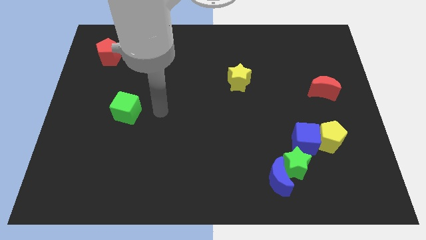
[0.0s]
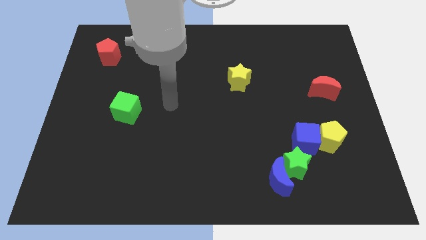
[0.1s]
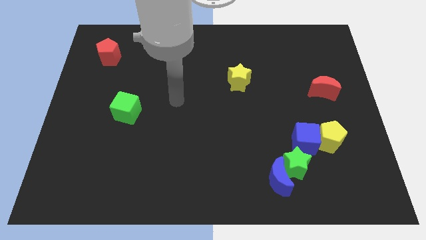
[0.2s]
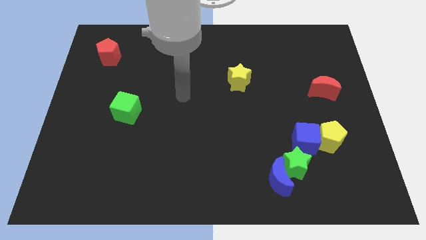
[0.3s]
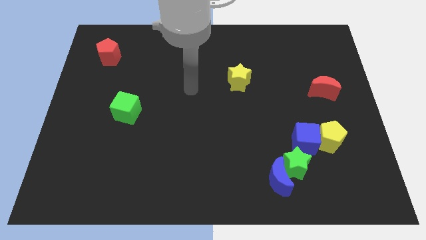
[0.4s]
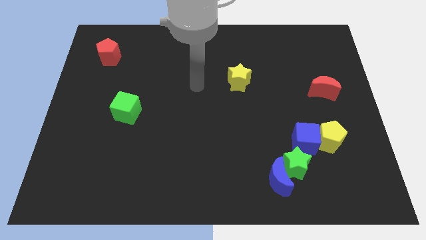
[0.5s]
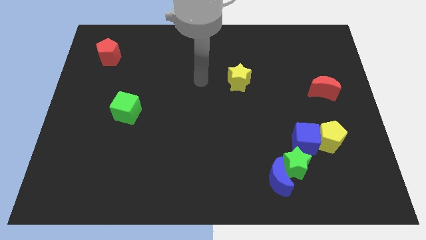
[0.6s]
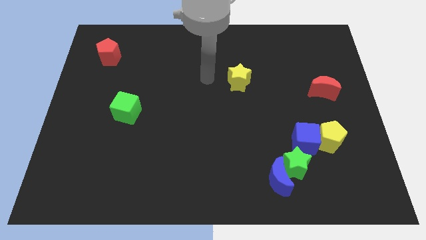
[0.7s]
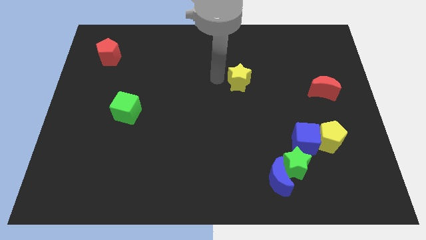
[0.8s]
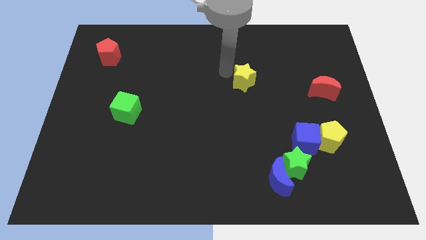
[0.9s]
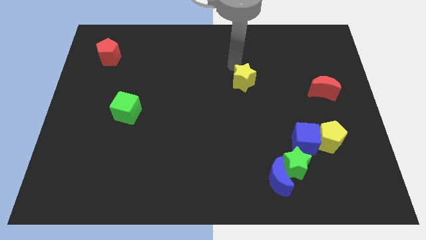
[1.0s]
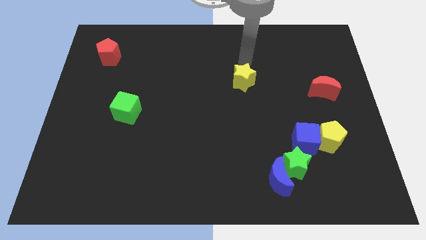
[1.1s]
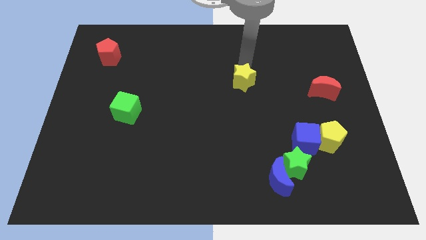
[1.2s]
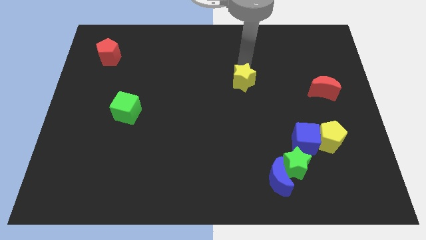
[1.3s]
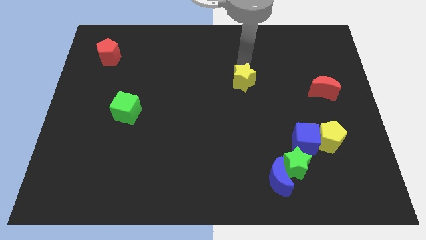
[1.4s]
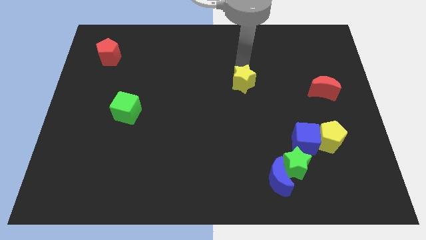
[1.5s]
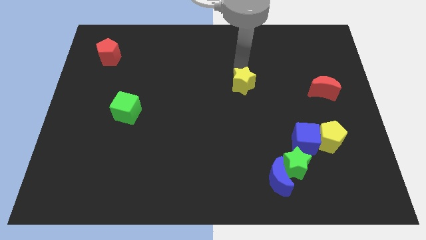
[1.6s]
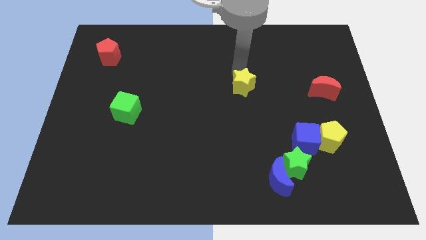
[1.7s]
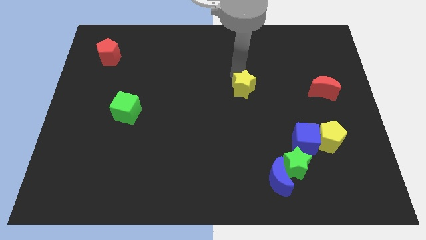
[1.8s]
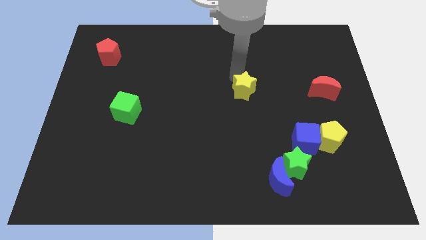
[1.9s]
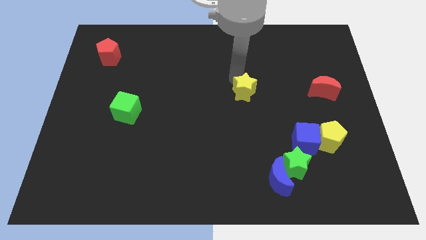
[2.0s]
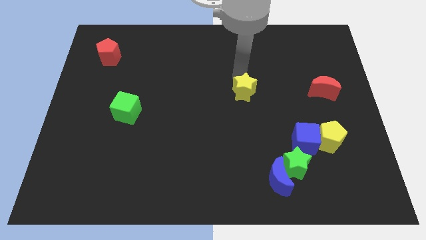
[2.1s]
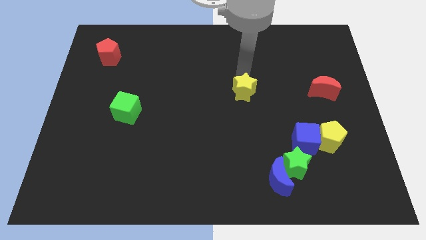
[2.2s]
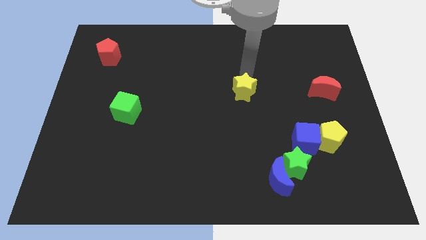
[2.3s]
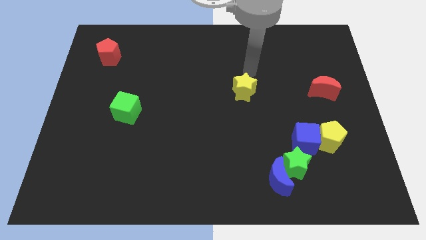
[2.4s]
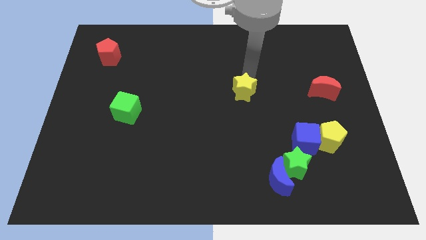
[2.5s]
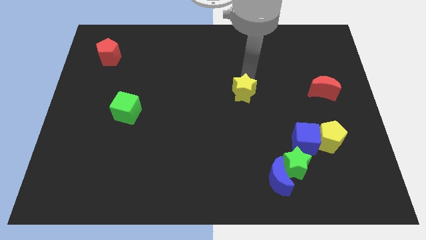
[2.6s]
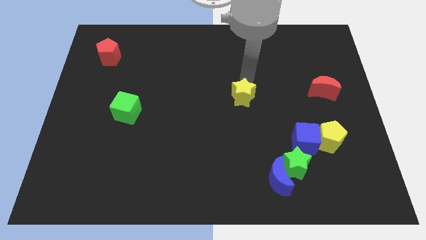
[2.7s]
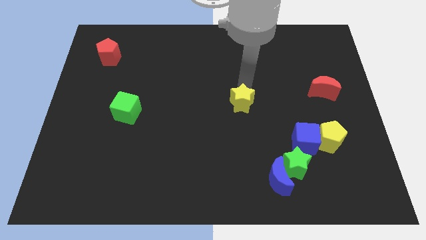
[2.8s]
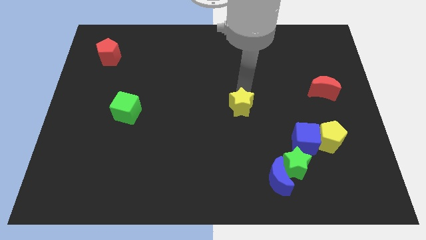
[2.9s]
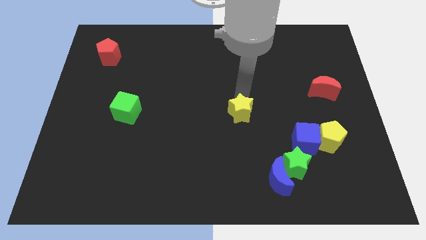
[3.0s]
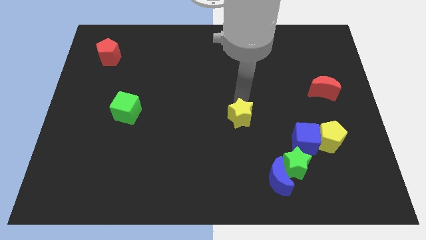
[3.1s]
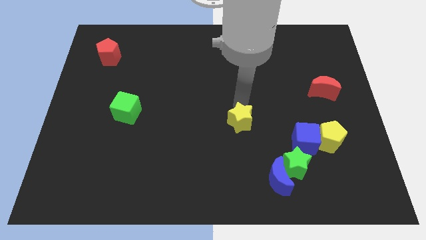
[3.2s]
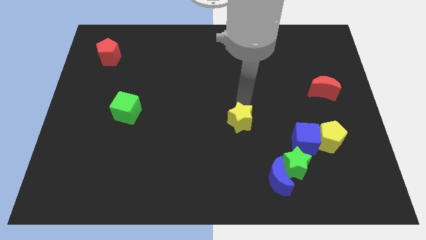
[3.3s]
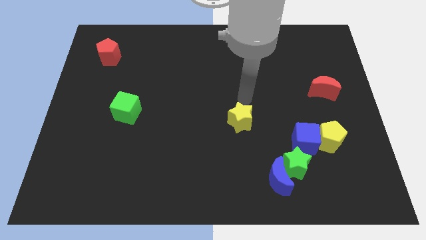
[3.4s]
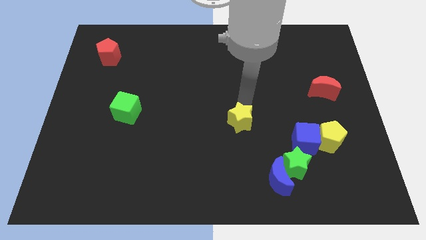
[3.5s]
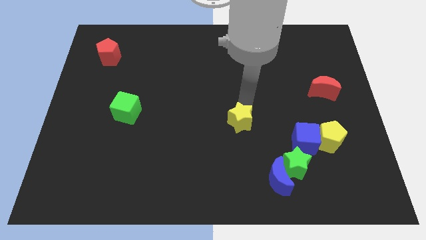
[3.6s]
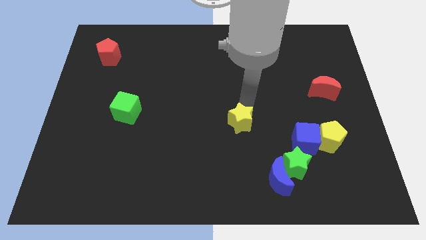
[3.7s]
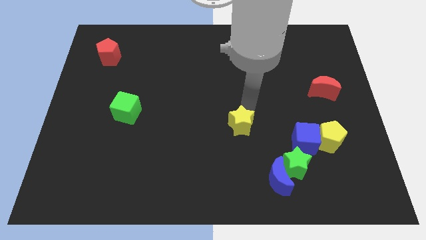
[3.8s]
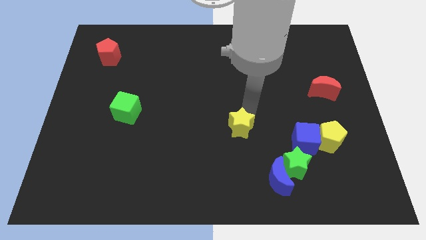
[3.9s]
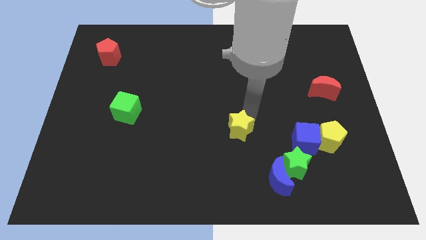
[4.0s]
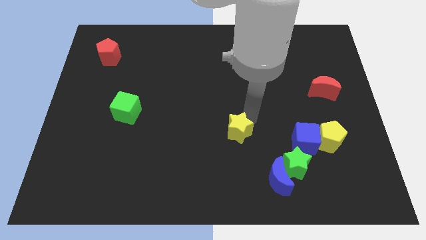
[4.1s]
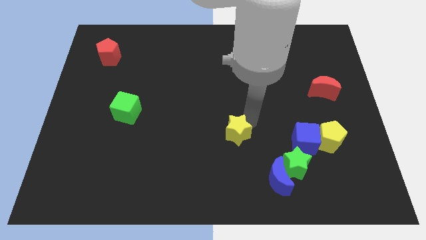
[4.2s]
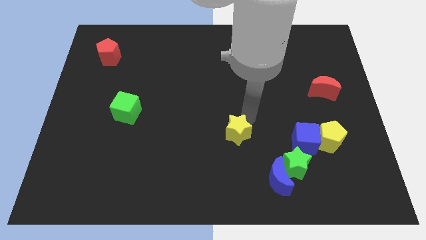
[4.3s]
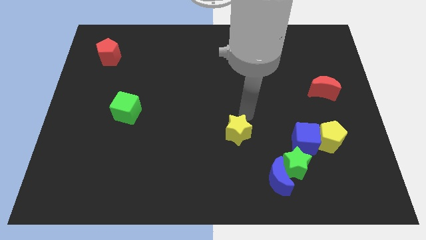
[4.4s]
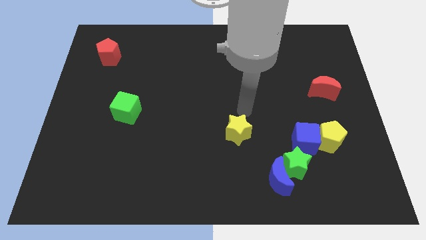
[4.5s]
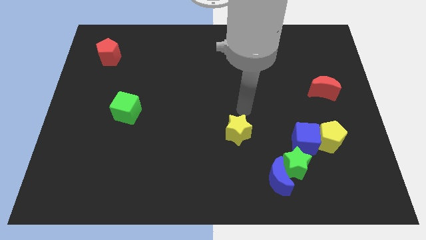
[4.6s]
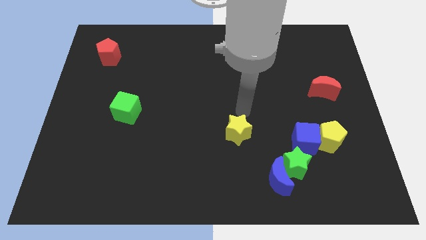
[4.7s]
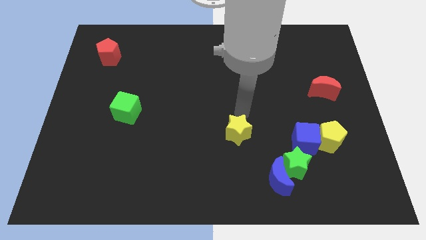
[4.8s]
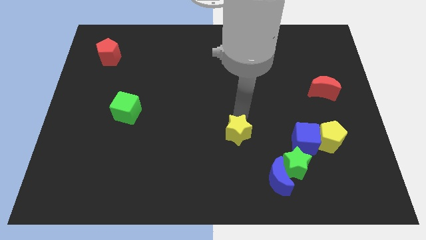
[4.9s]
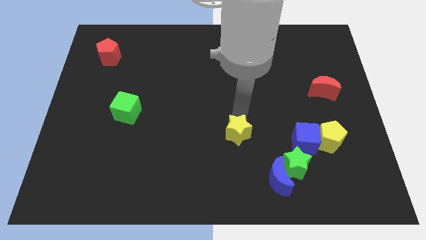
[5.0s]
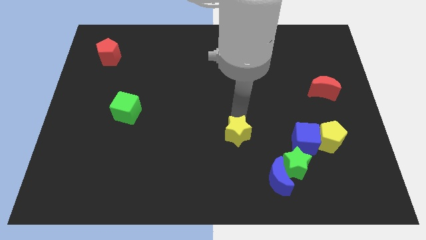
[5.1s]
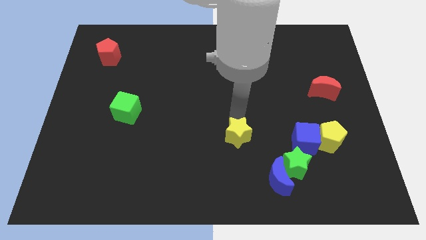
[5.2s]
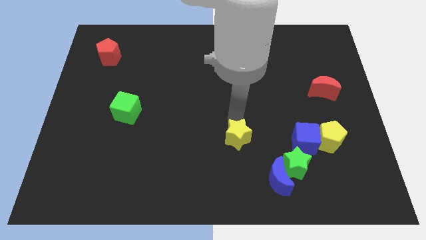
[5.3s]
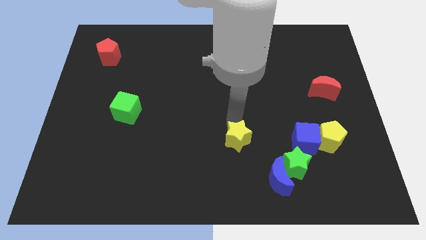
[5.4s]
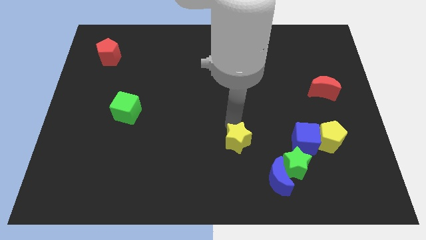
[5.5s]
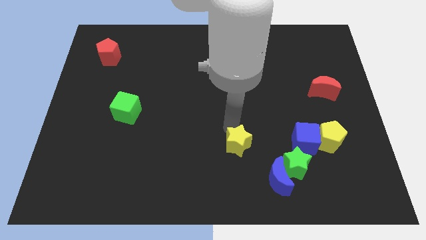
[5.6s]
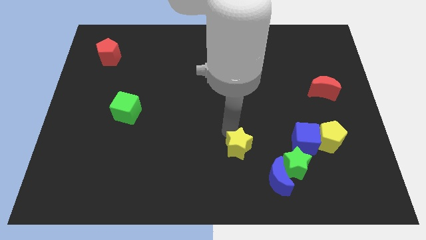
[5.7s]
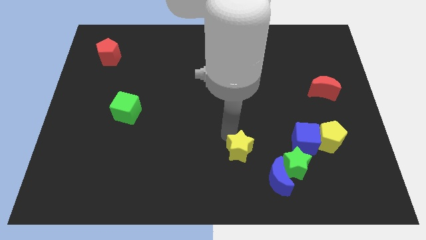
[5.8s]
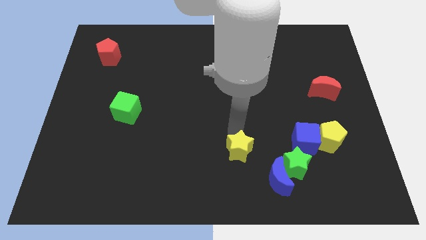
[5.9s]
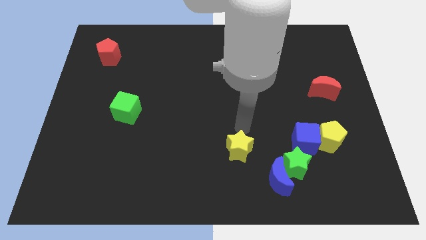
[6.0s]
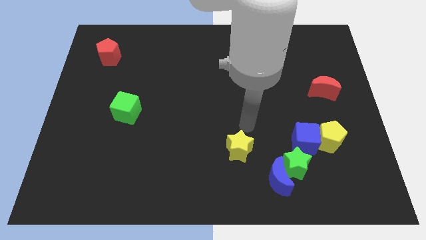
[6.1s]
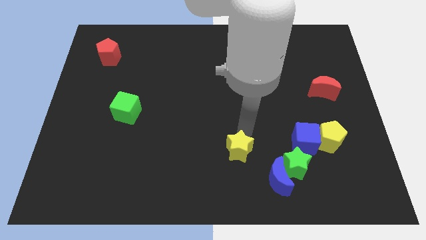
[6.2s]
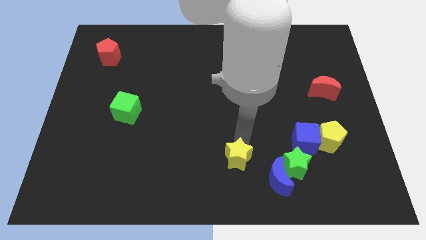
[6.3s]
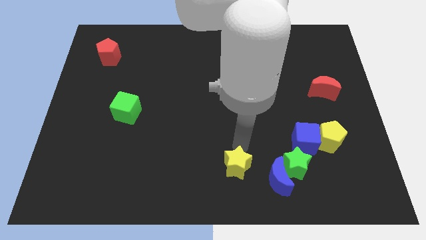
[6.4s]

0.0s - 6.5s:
put the yellow star left of the blue moon
